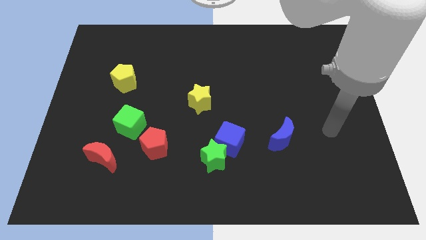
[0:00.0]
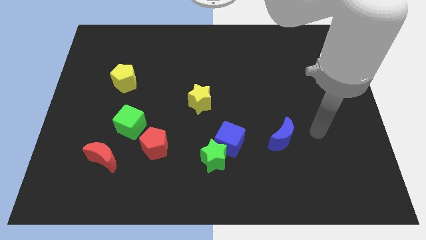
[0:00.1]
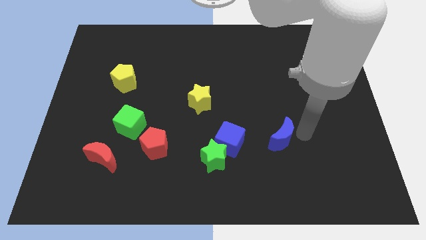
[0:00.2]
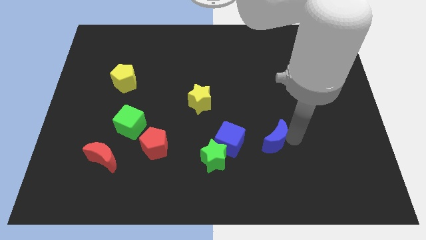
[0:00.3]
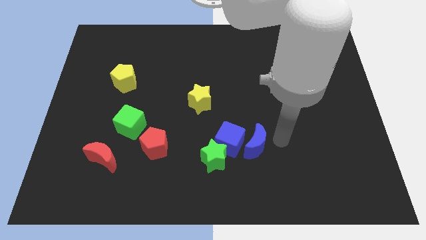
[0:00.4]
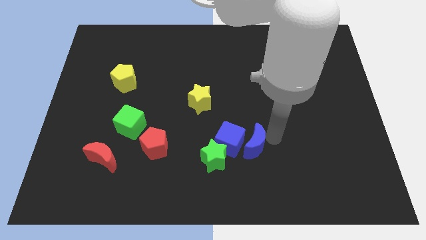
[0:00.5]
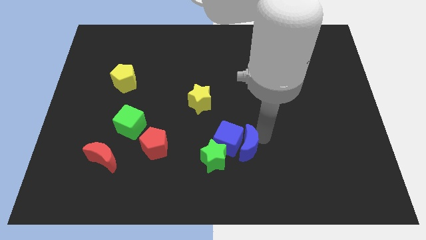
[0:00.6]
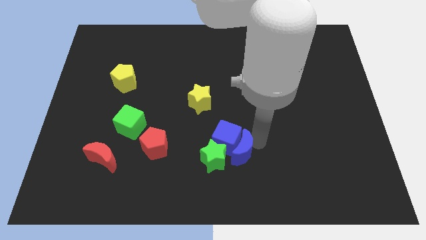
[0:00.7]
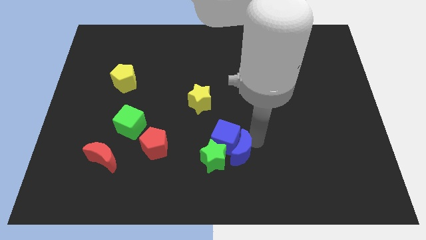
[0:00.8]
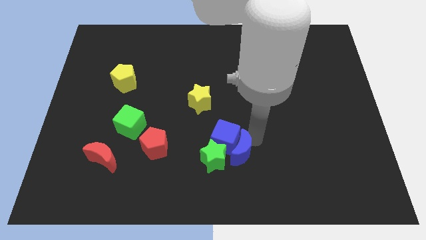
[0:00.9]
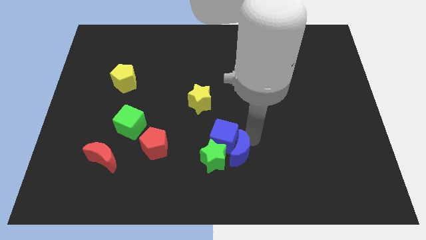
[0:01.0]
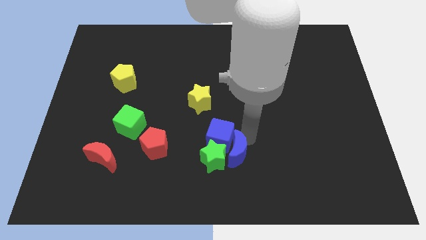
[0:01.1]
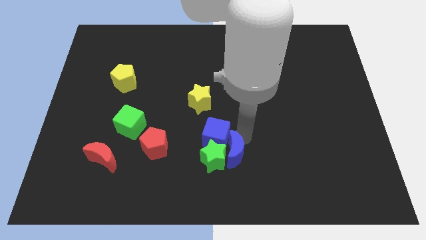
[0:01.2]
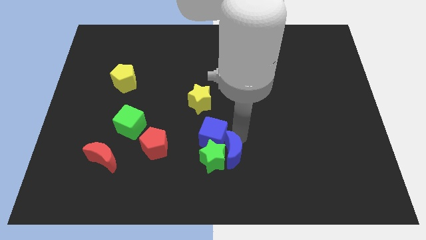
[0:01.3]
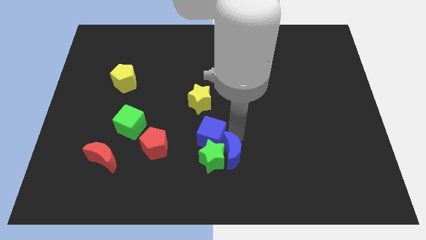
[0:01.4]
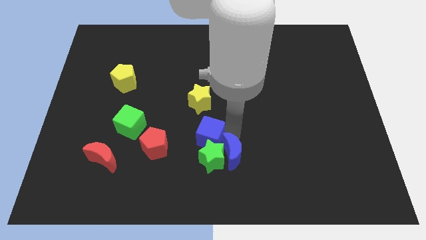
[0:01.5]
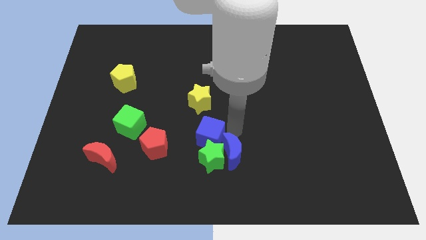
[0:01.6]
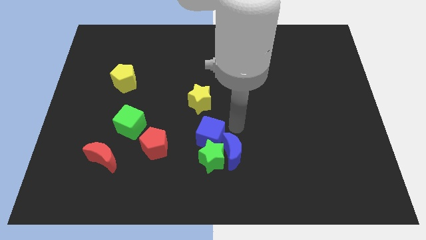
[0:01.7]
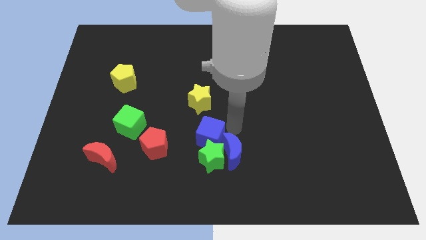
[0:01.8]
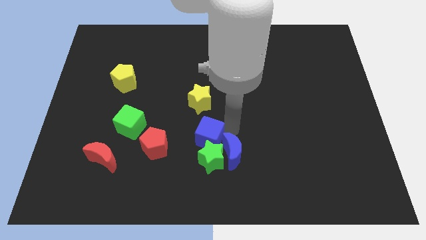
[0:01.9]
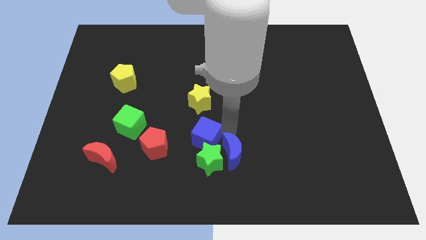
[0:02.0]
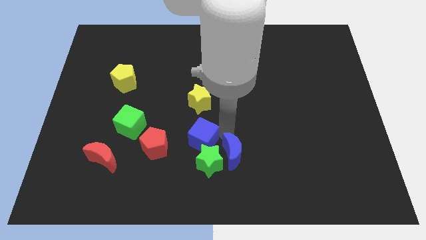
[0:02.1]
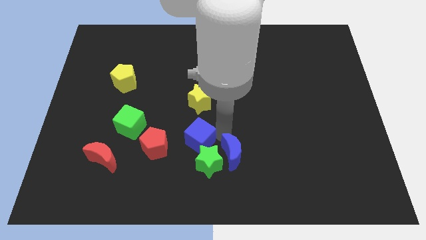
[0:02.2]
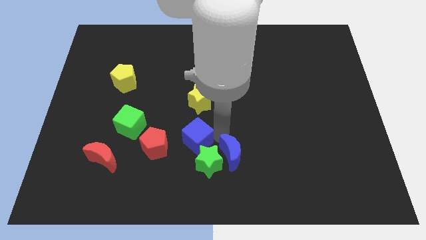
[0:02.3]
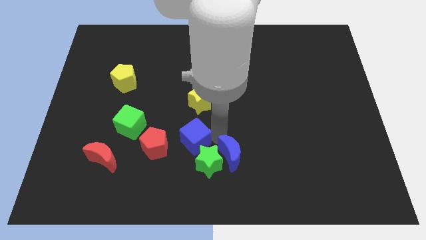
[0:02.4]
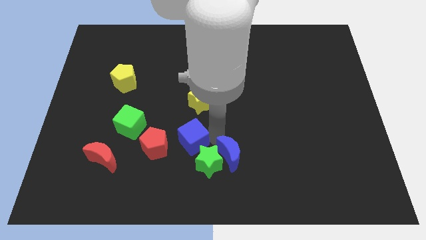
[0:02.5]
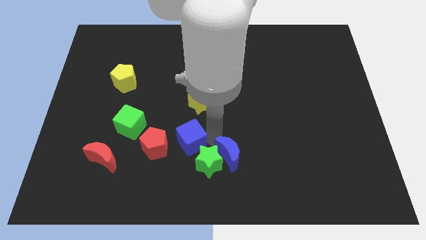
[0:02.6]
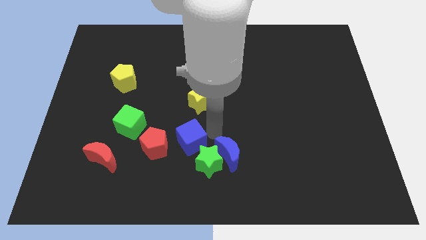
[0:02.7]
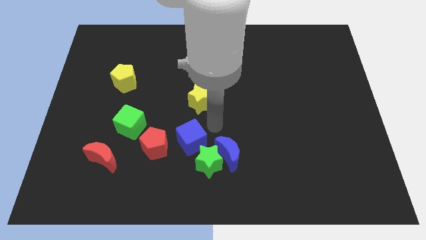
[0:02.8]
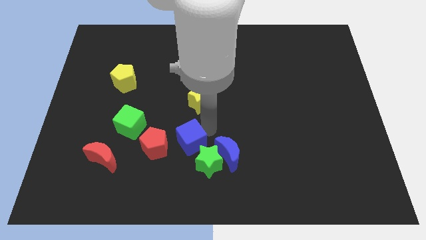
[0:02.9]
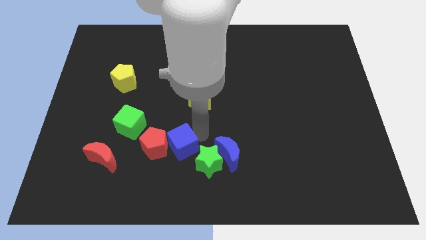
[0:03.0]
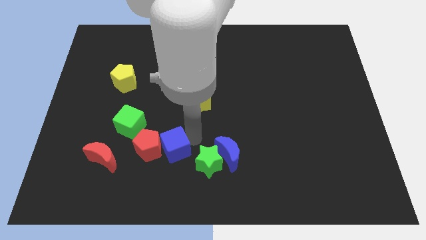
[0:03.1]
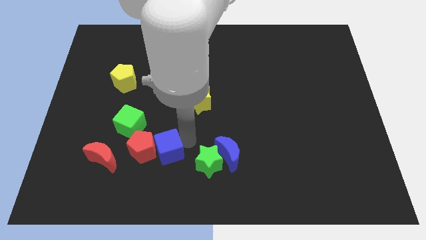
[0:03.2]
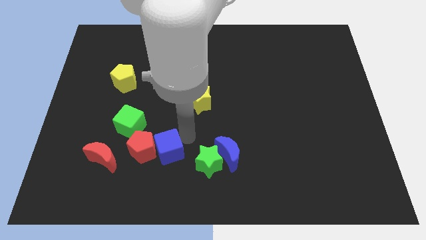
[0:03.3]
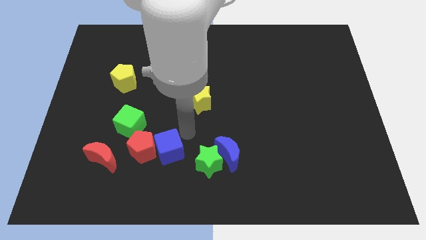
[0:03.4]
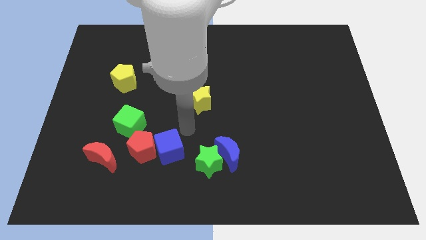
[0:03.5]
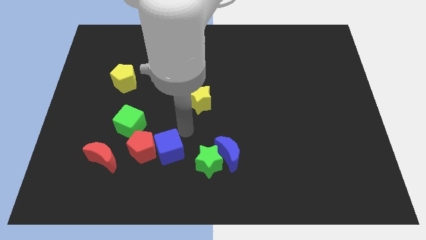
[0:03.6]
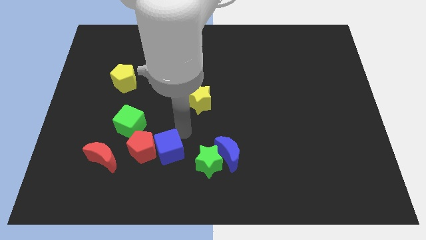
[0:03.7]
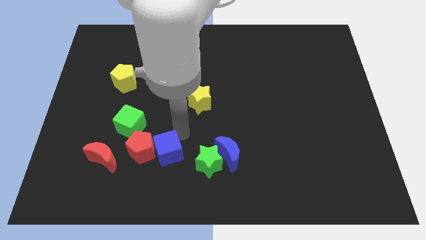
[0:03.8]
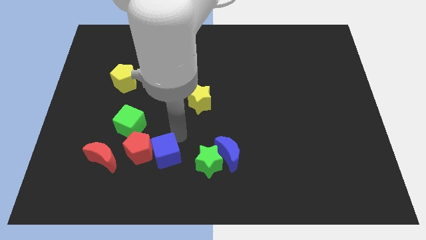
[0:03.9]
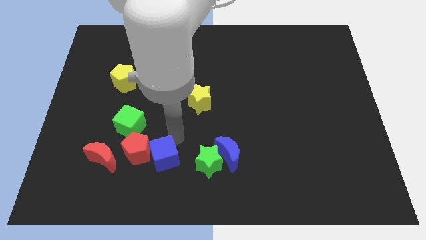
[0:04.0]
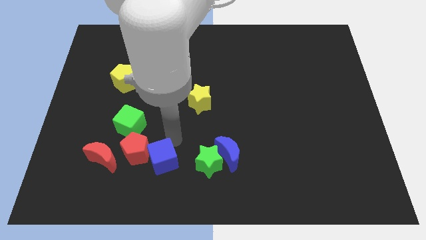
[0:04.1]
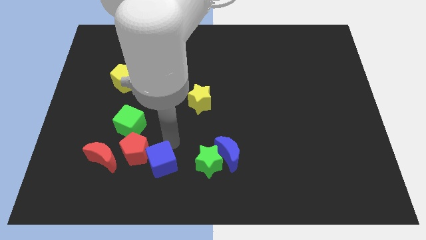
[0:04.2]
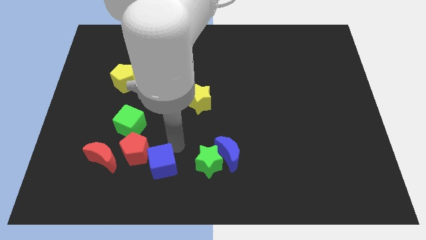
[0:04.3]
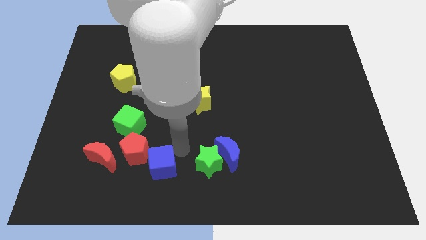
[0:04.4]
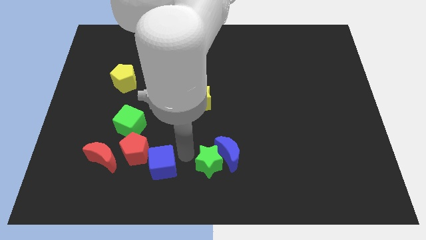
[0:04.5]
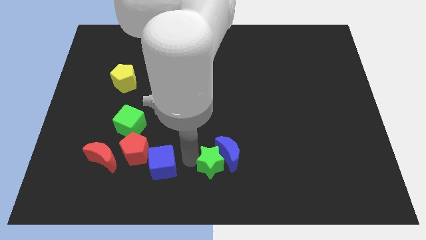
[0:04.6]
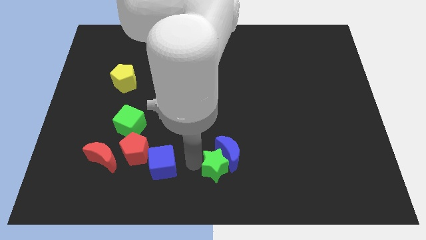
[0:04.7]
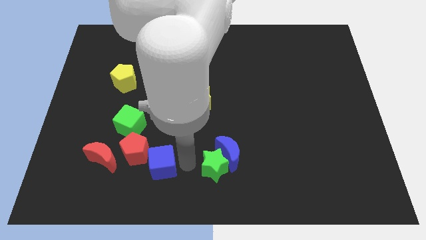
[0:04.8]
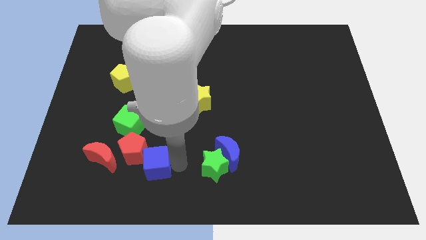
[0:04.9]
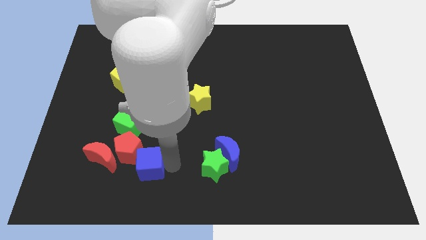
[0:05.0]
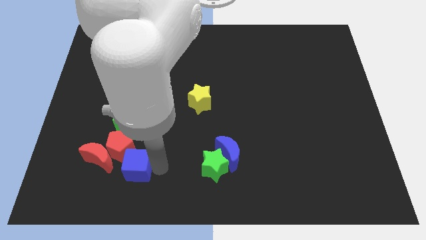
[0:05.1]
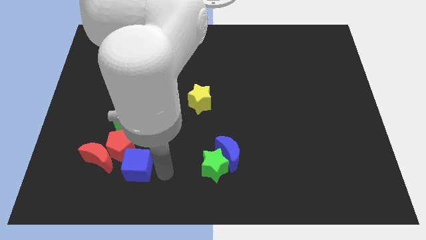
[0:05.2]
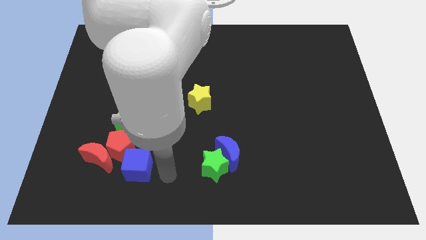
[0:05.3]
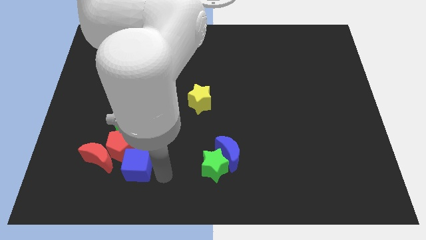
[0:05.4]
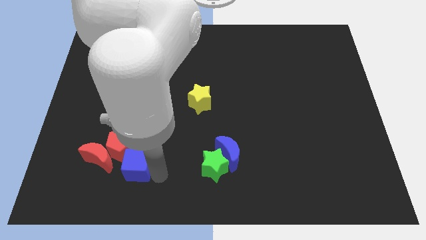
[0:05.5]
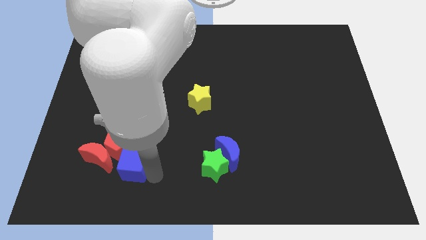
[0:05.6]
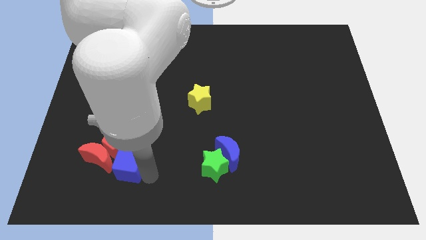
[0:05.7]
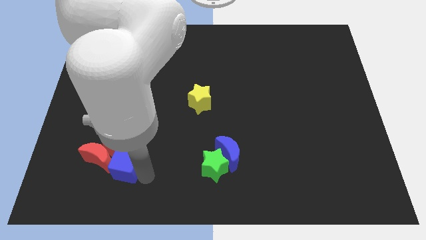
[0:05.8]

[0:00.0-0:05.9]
slide the blue cube next to the red moon

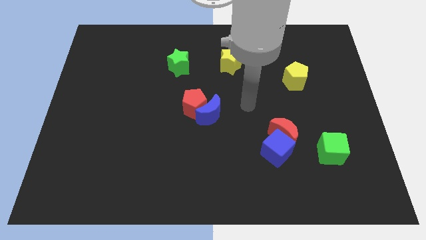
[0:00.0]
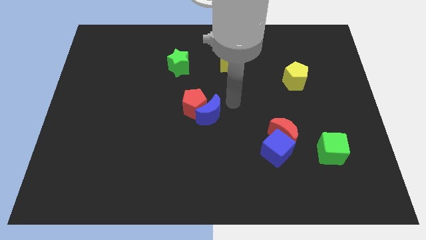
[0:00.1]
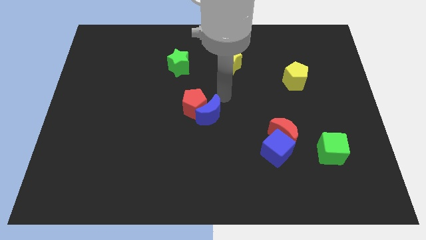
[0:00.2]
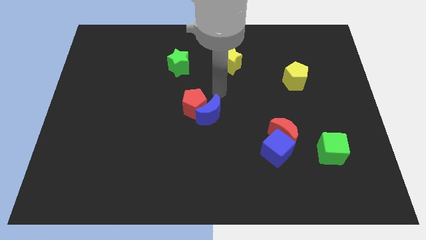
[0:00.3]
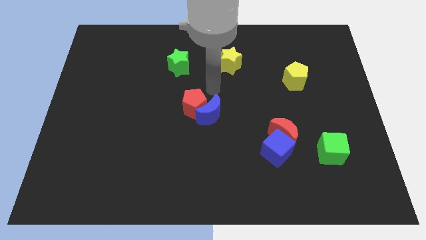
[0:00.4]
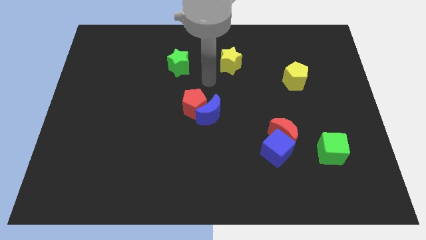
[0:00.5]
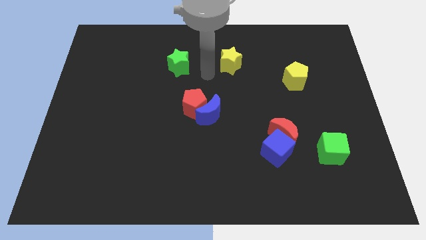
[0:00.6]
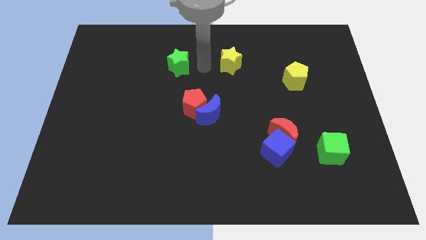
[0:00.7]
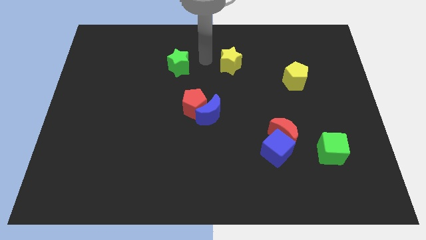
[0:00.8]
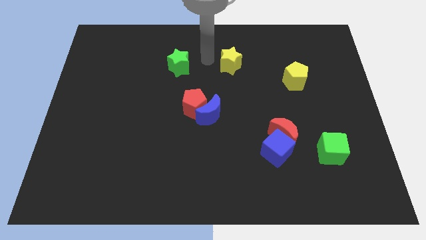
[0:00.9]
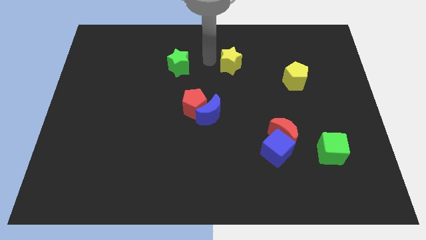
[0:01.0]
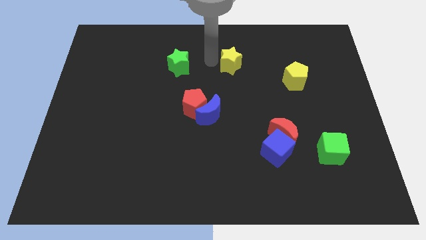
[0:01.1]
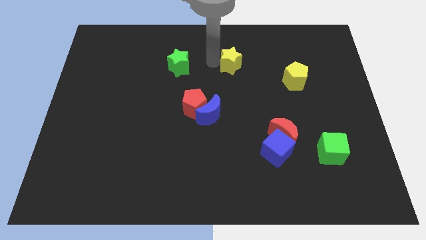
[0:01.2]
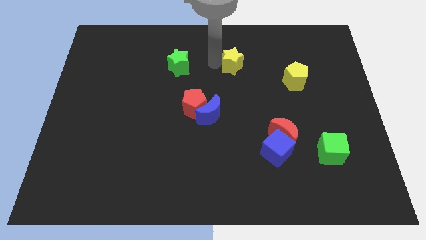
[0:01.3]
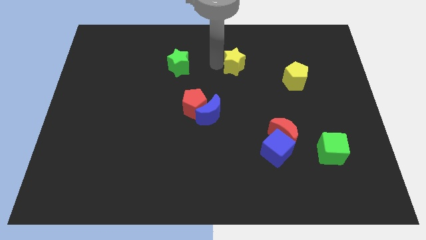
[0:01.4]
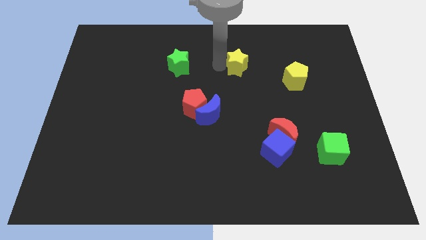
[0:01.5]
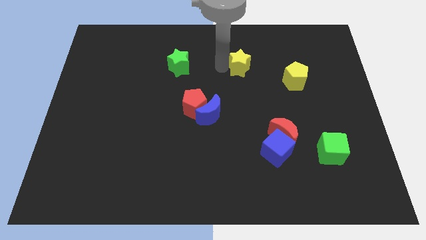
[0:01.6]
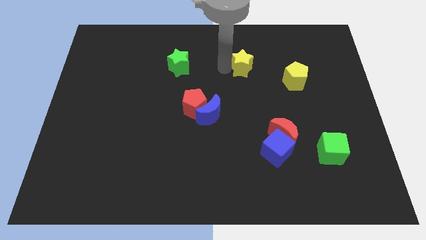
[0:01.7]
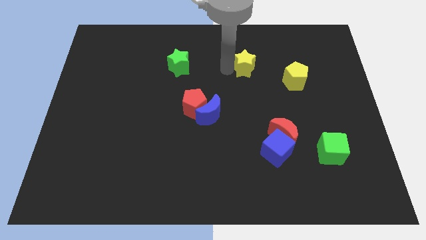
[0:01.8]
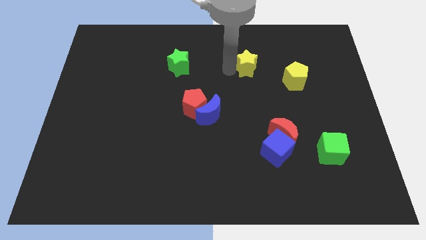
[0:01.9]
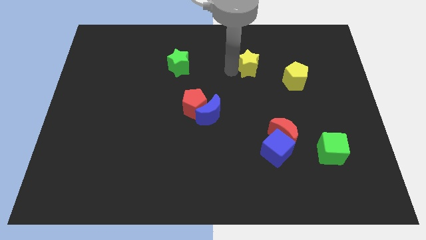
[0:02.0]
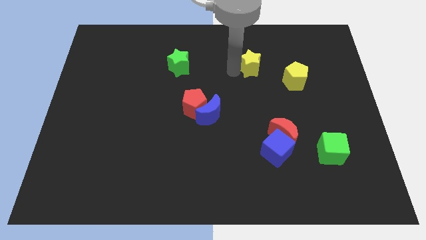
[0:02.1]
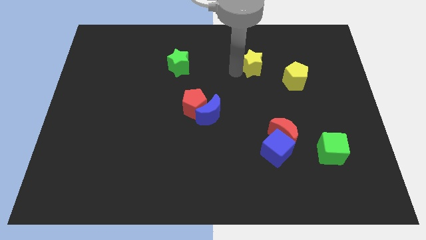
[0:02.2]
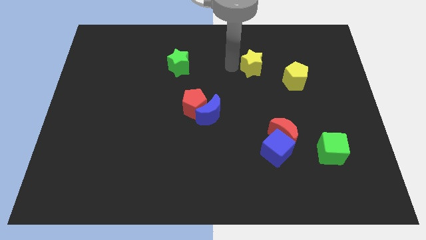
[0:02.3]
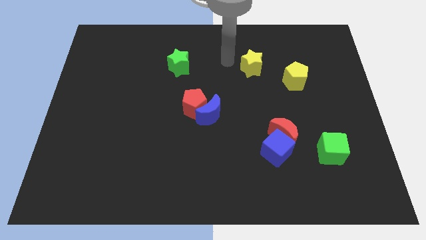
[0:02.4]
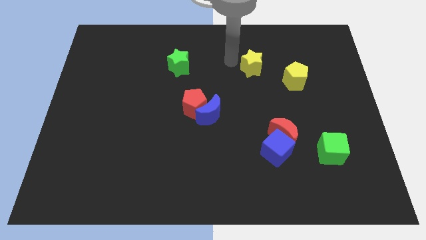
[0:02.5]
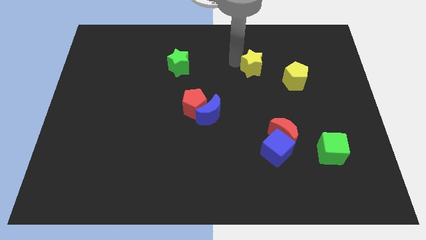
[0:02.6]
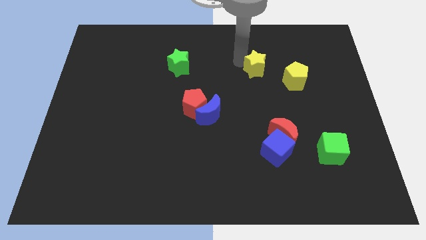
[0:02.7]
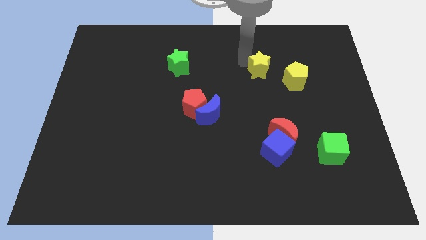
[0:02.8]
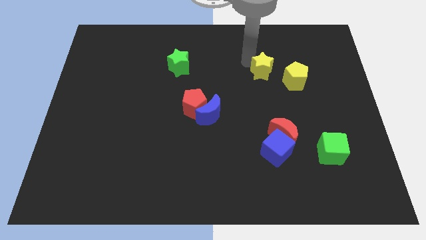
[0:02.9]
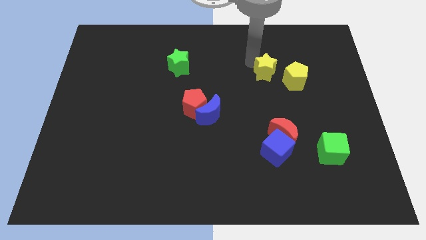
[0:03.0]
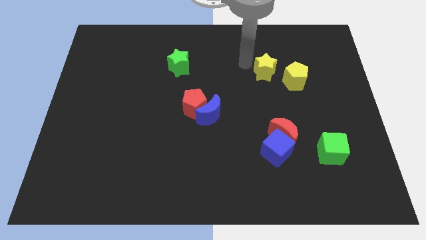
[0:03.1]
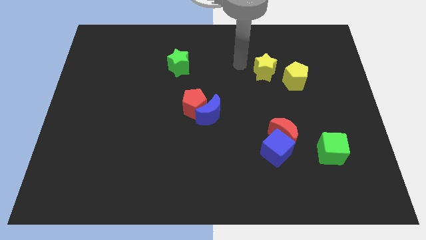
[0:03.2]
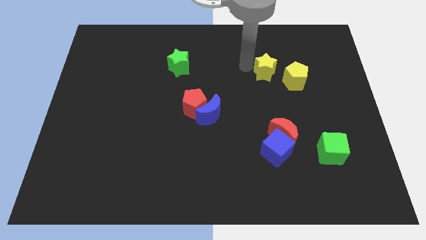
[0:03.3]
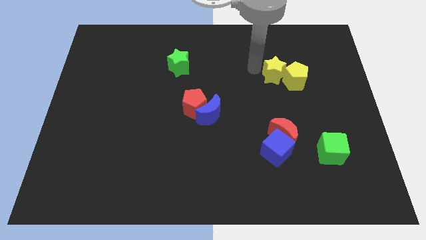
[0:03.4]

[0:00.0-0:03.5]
put the yellow star close to the yellow pentagon
